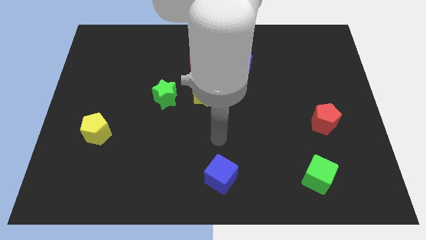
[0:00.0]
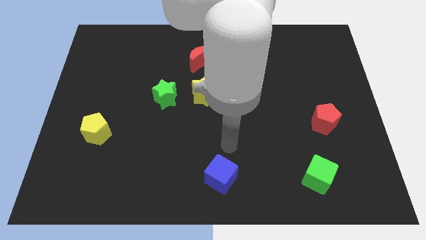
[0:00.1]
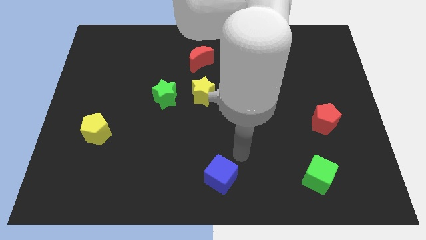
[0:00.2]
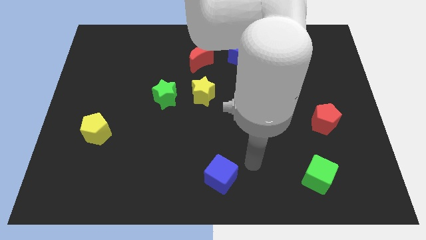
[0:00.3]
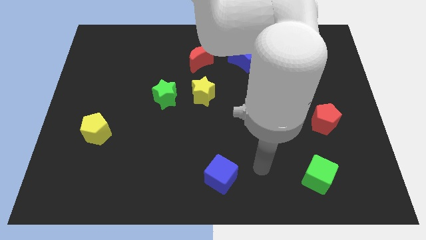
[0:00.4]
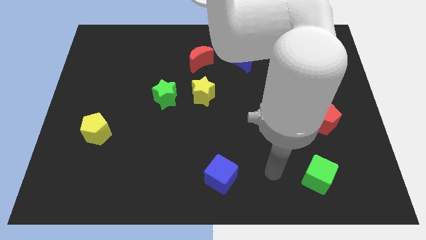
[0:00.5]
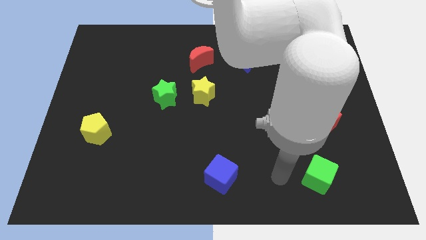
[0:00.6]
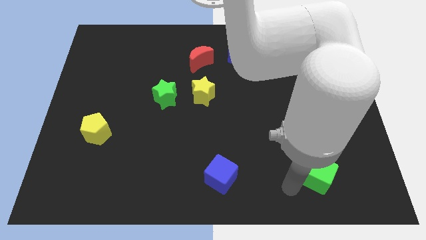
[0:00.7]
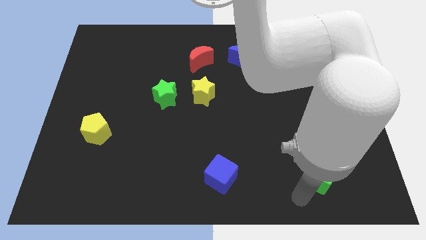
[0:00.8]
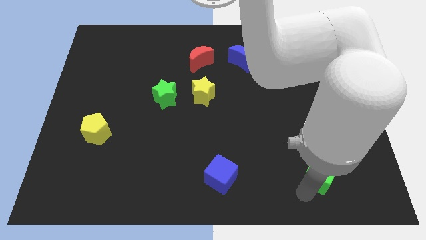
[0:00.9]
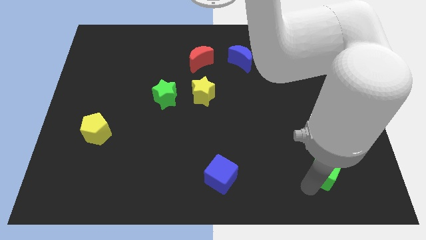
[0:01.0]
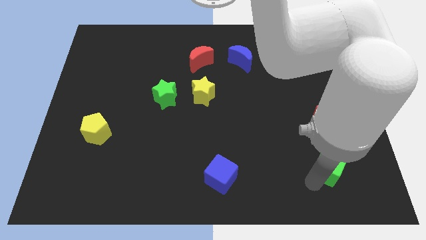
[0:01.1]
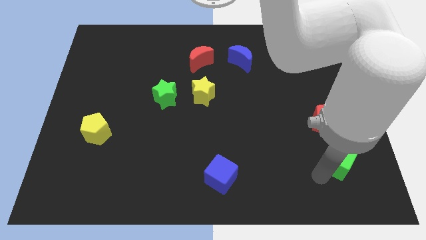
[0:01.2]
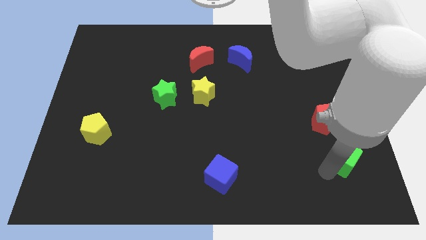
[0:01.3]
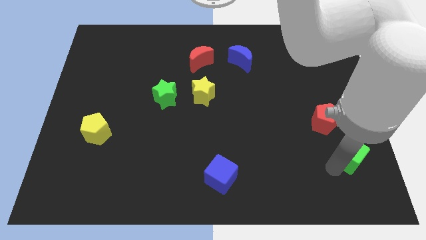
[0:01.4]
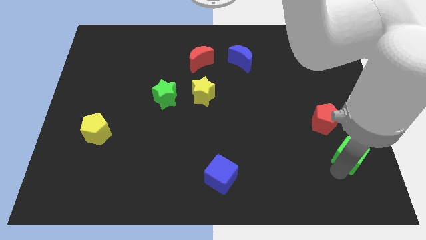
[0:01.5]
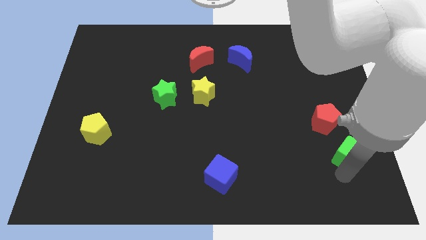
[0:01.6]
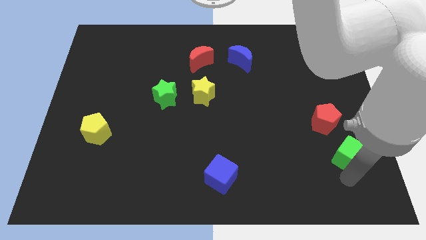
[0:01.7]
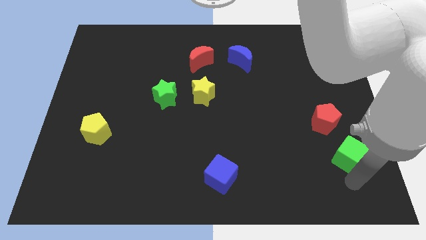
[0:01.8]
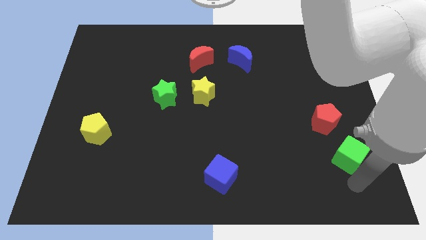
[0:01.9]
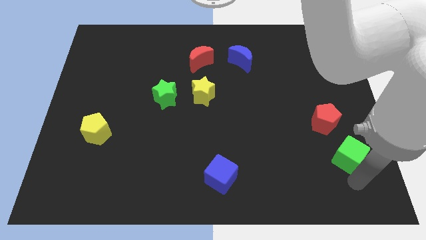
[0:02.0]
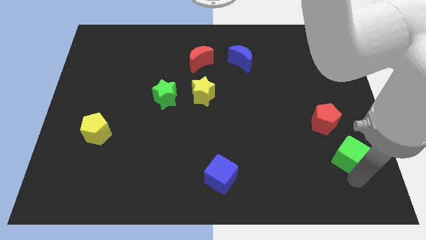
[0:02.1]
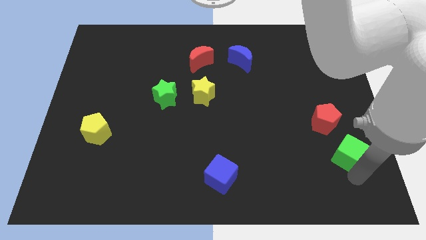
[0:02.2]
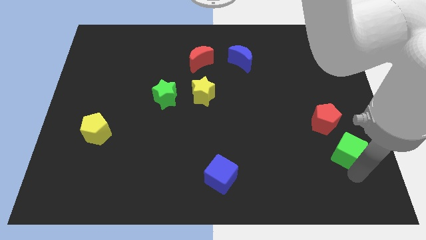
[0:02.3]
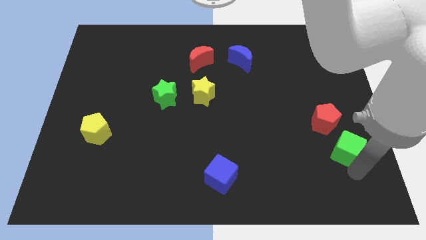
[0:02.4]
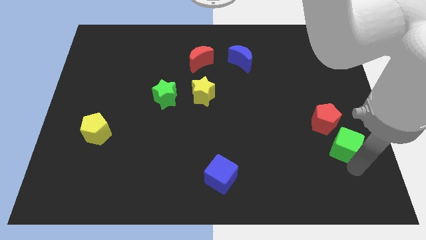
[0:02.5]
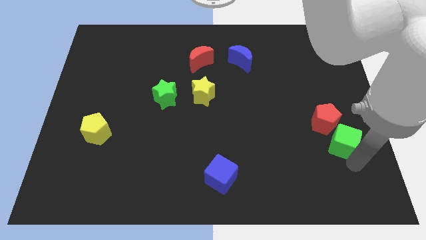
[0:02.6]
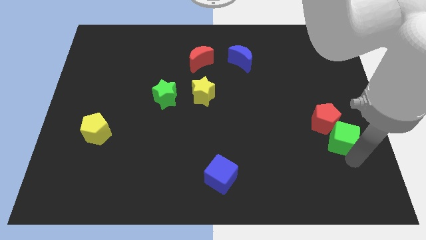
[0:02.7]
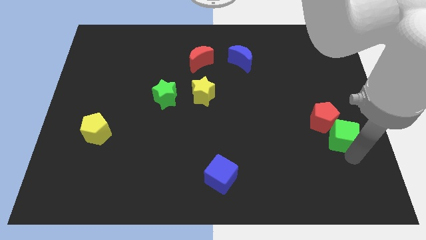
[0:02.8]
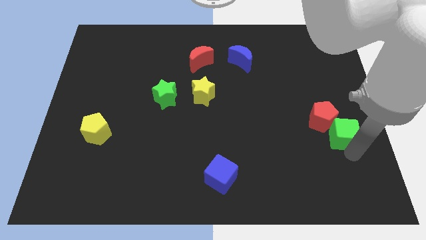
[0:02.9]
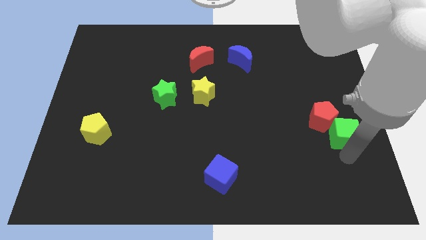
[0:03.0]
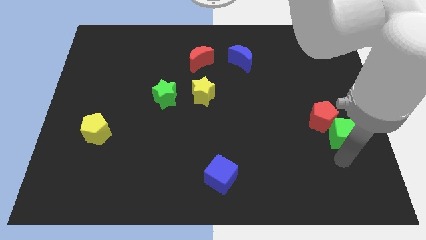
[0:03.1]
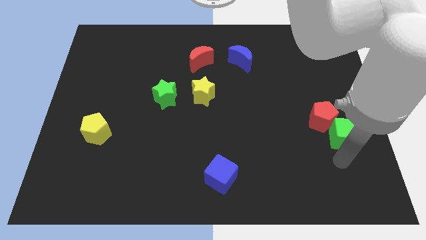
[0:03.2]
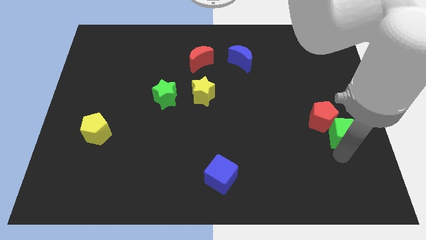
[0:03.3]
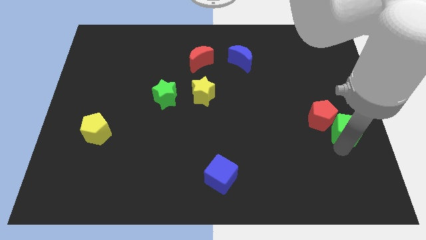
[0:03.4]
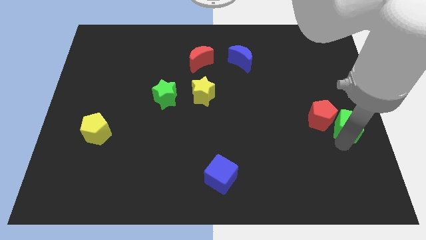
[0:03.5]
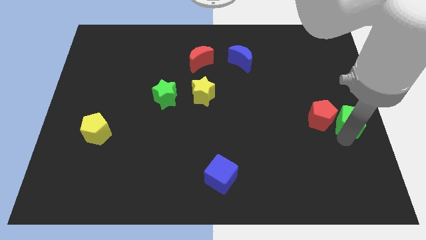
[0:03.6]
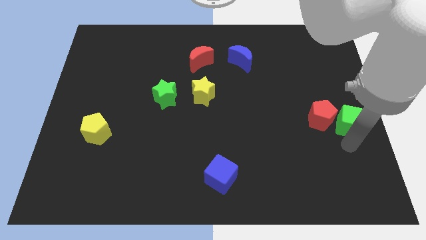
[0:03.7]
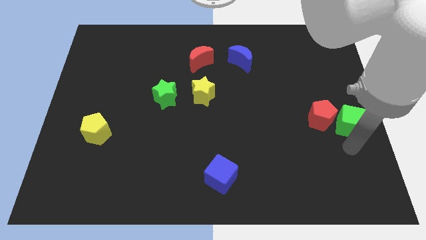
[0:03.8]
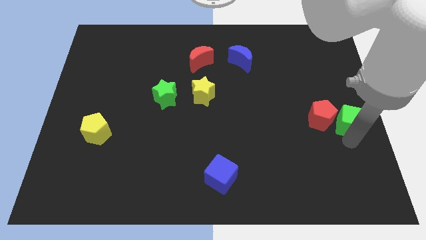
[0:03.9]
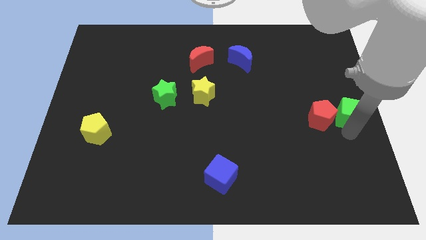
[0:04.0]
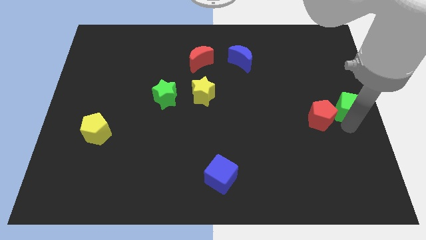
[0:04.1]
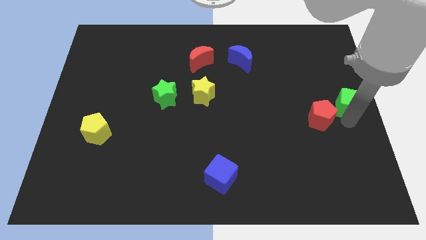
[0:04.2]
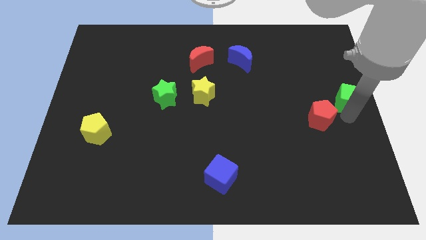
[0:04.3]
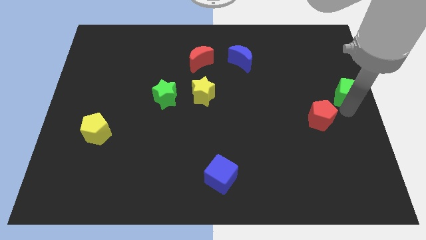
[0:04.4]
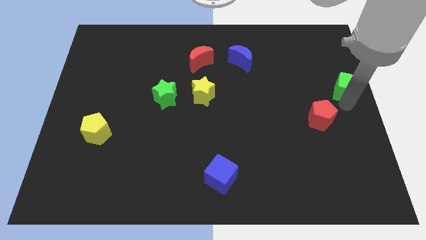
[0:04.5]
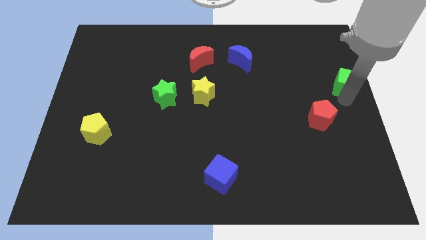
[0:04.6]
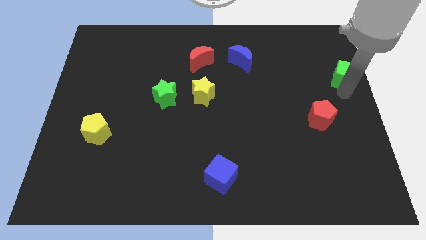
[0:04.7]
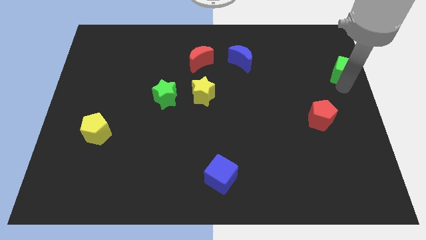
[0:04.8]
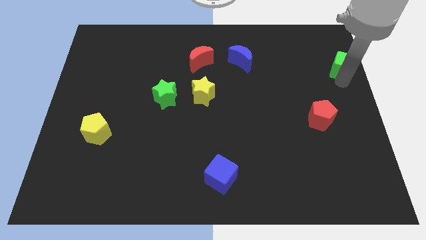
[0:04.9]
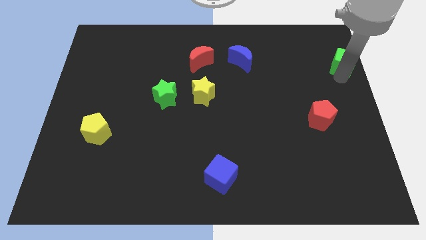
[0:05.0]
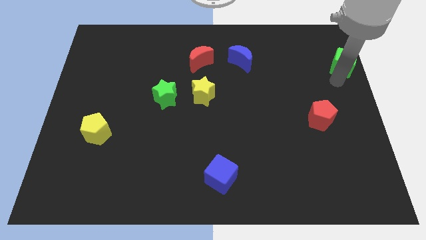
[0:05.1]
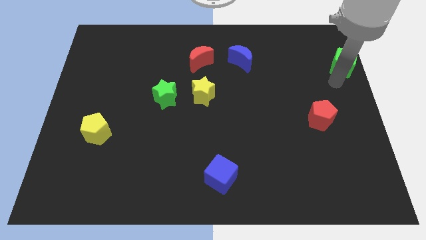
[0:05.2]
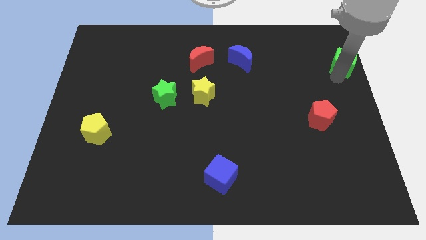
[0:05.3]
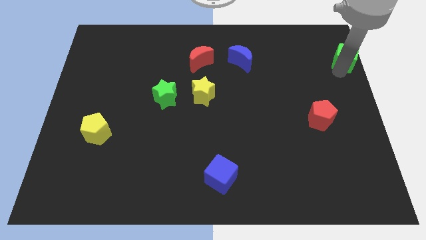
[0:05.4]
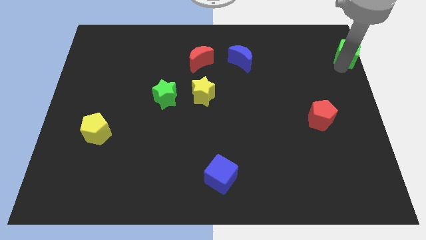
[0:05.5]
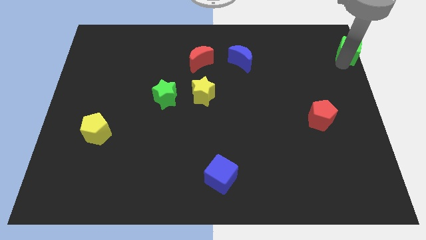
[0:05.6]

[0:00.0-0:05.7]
move the green cube to the top right of the board

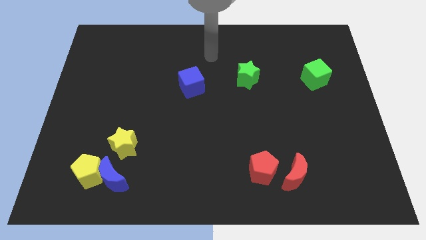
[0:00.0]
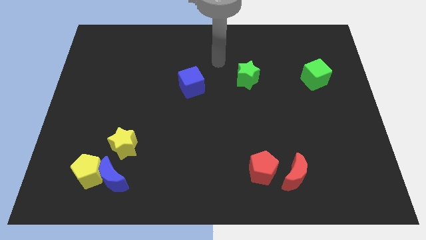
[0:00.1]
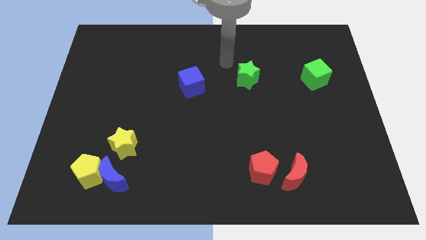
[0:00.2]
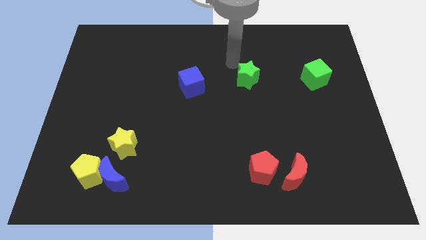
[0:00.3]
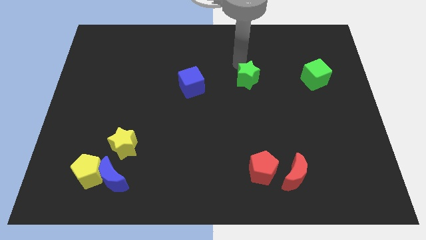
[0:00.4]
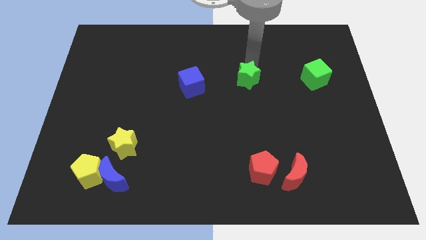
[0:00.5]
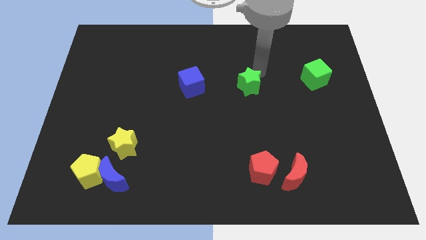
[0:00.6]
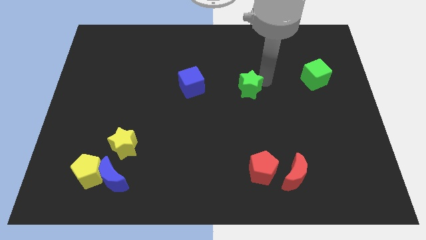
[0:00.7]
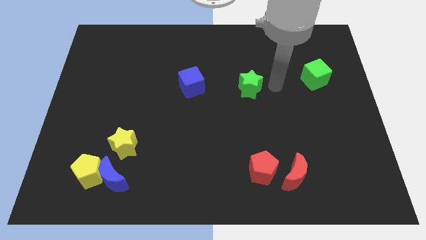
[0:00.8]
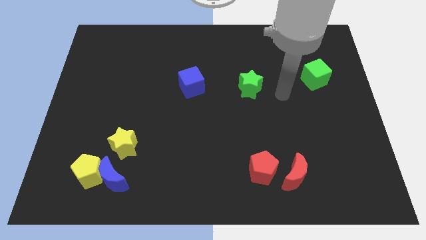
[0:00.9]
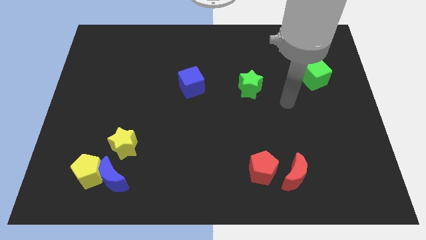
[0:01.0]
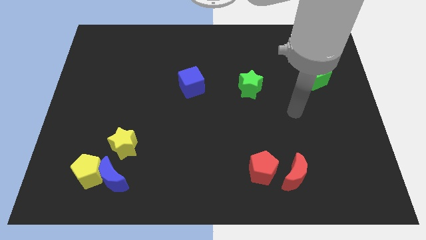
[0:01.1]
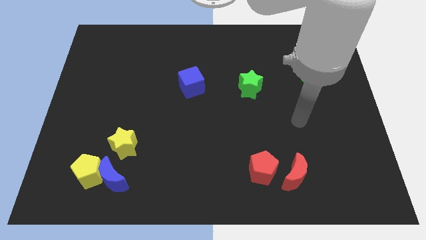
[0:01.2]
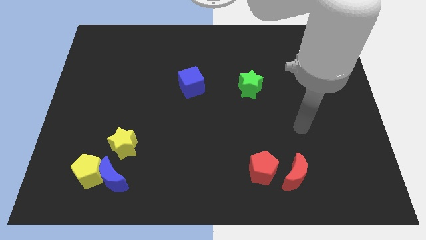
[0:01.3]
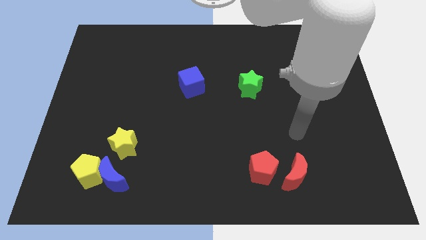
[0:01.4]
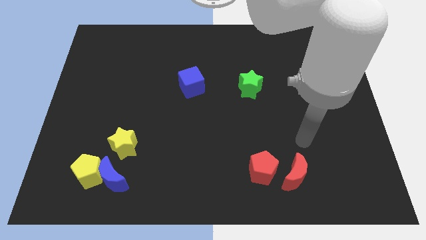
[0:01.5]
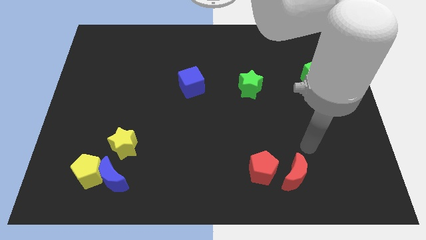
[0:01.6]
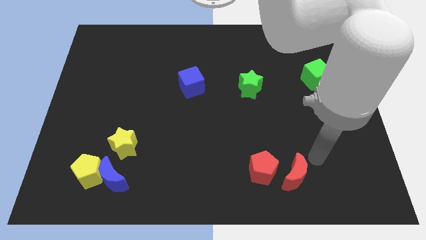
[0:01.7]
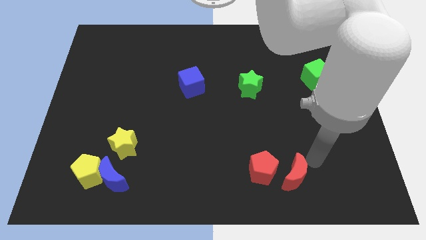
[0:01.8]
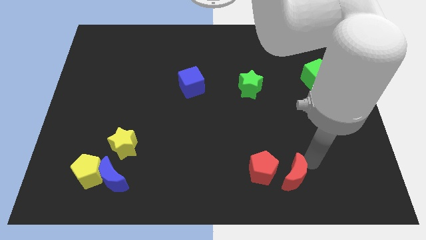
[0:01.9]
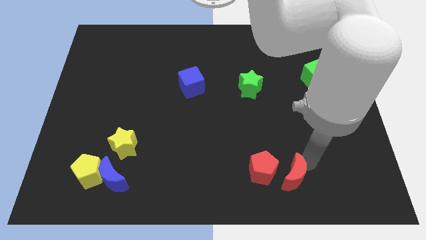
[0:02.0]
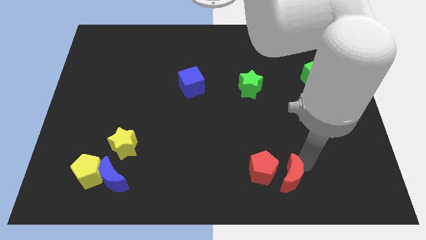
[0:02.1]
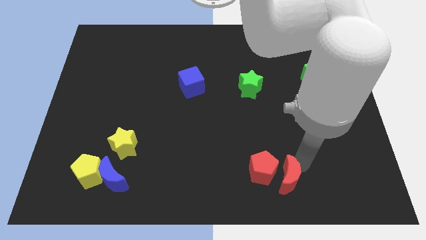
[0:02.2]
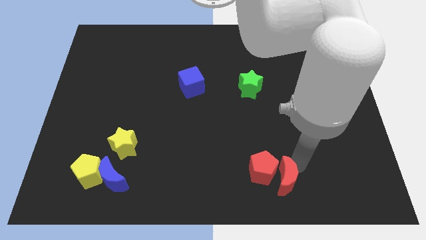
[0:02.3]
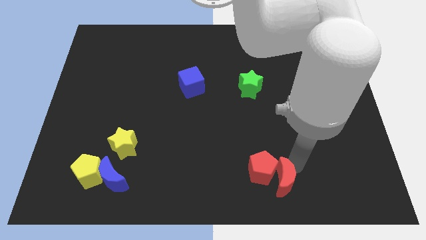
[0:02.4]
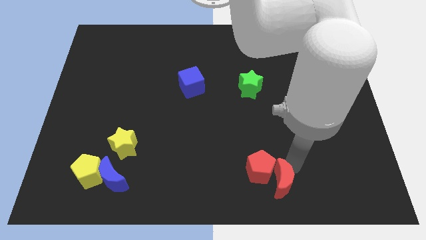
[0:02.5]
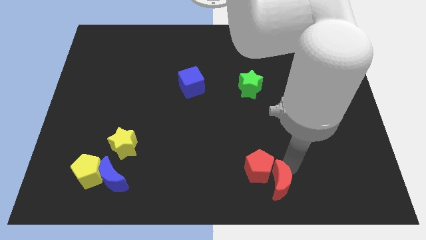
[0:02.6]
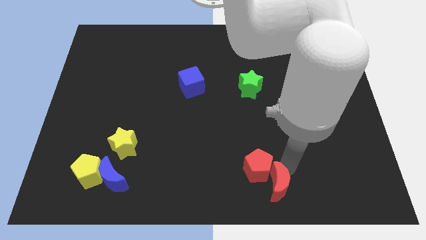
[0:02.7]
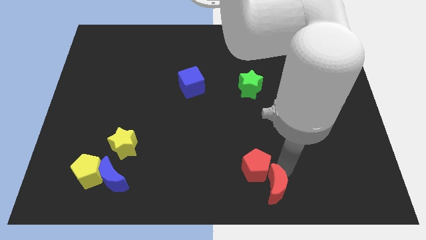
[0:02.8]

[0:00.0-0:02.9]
slide the red moon to the bottom
